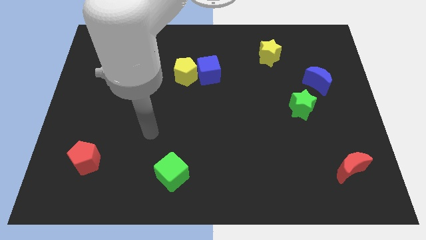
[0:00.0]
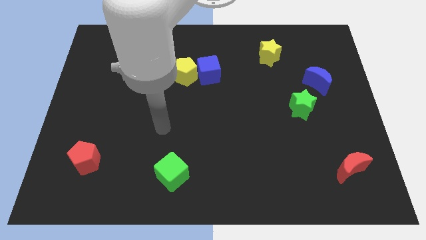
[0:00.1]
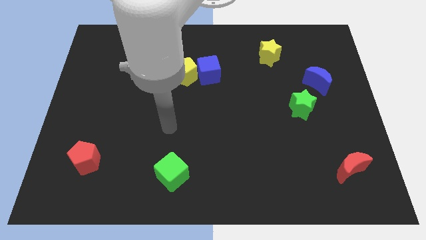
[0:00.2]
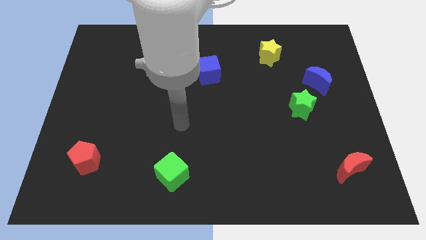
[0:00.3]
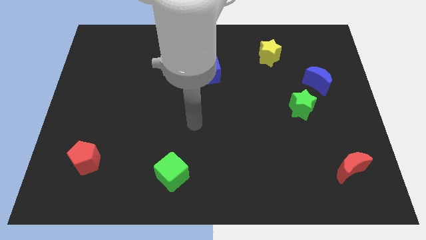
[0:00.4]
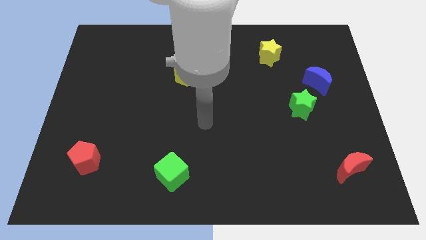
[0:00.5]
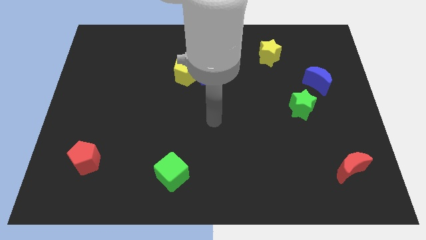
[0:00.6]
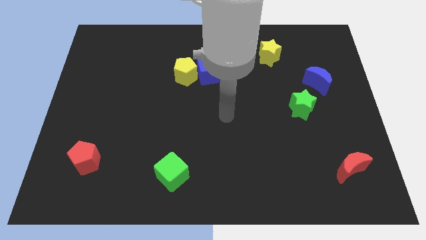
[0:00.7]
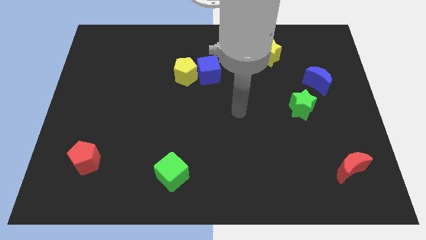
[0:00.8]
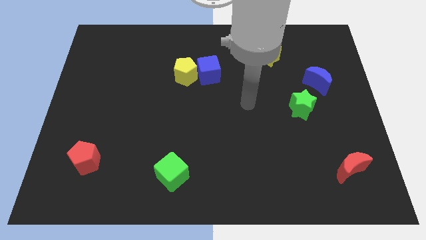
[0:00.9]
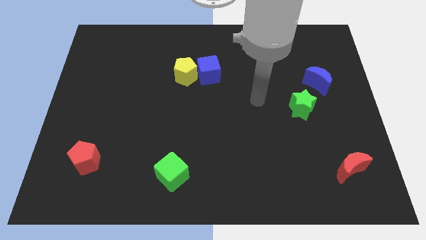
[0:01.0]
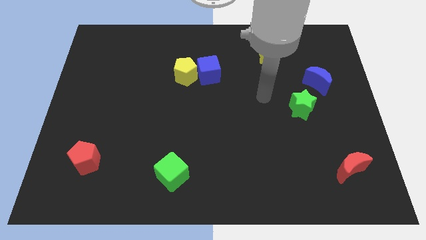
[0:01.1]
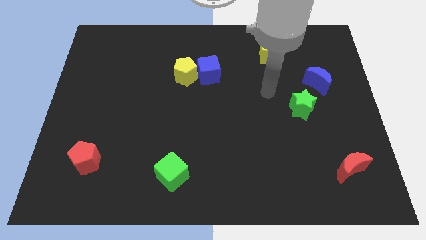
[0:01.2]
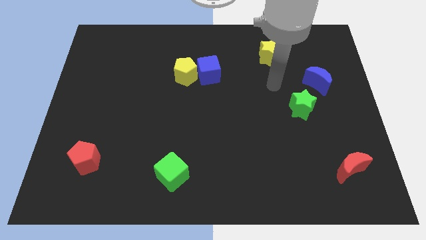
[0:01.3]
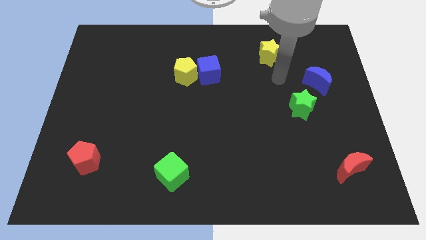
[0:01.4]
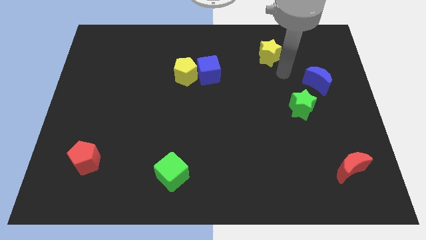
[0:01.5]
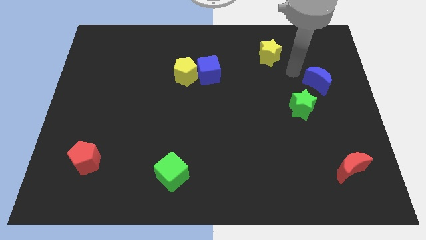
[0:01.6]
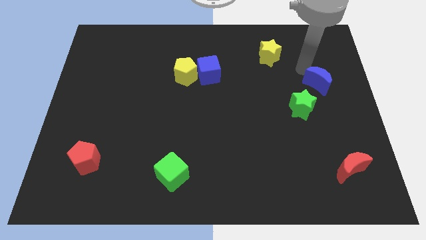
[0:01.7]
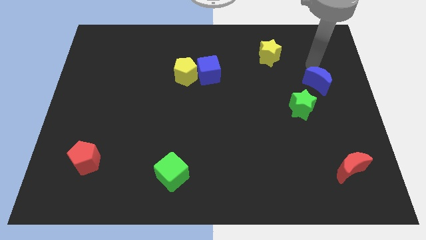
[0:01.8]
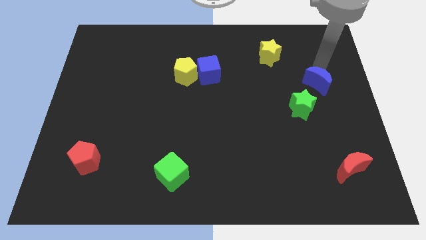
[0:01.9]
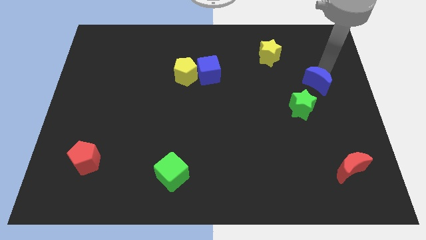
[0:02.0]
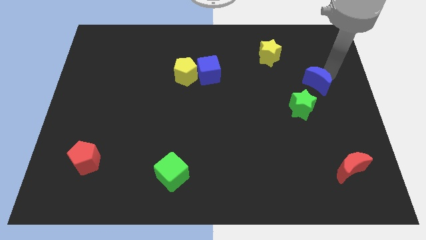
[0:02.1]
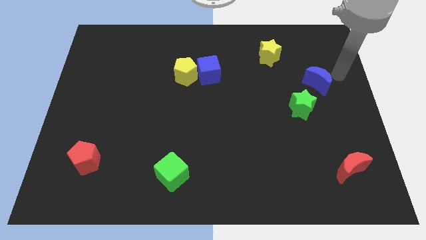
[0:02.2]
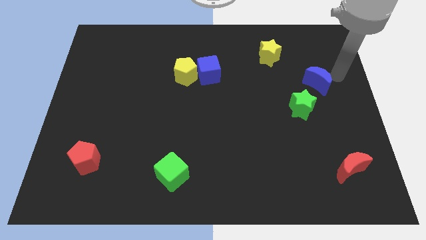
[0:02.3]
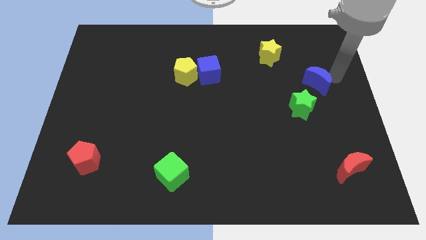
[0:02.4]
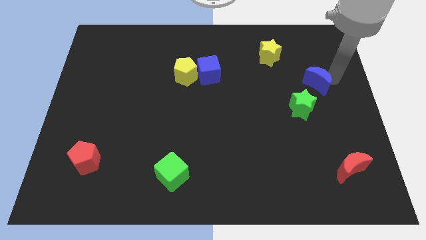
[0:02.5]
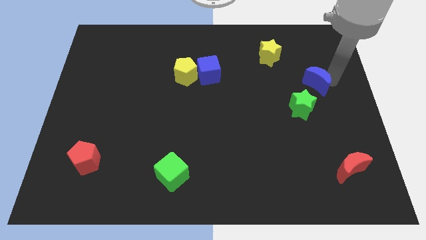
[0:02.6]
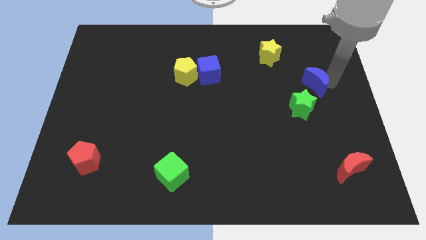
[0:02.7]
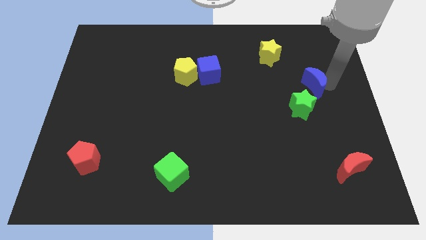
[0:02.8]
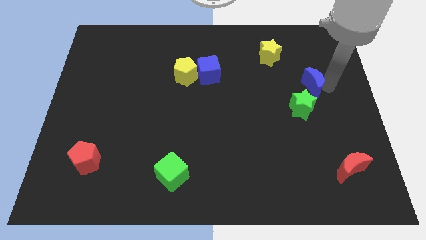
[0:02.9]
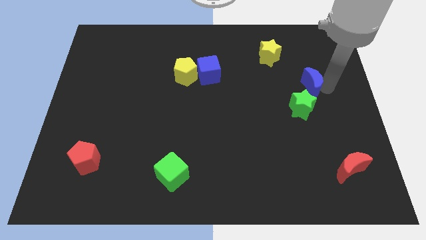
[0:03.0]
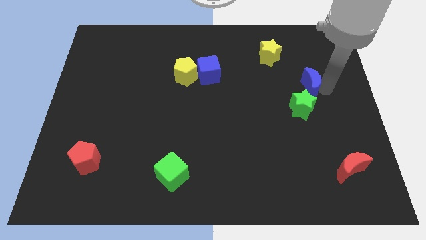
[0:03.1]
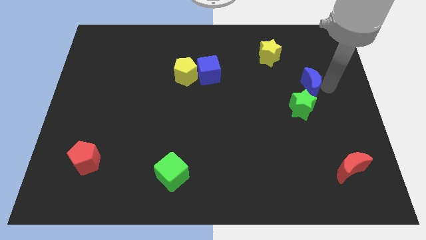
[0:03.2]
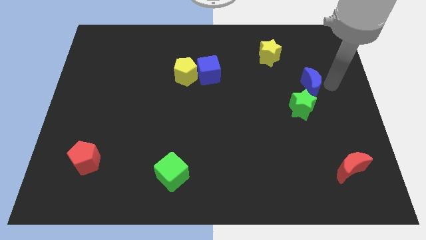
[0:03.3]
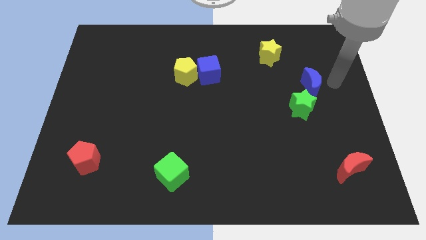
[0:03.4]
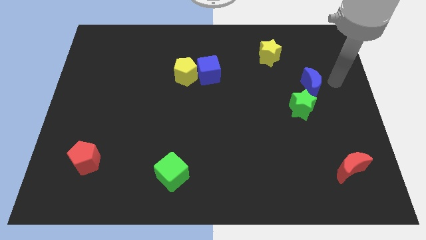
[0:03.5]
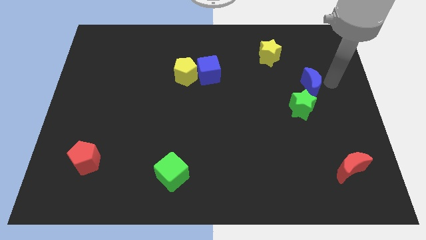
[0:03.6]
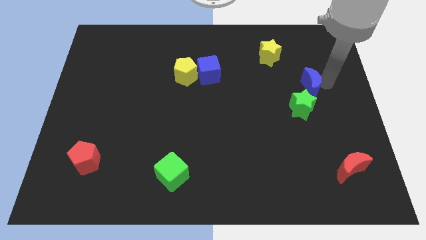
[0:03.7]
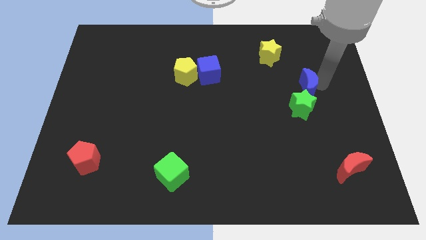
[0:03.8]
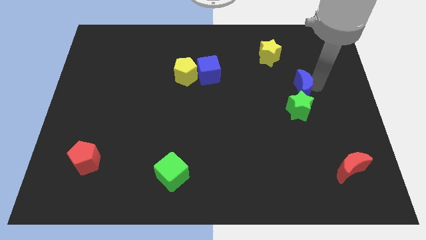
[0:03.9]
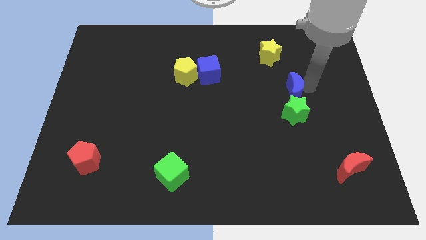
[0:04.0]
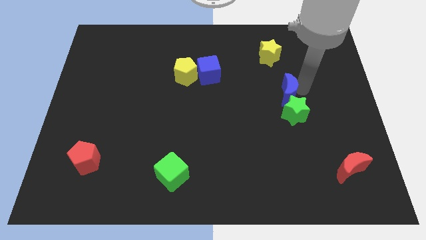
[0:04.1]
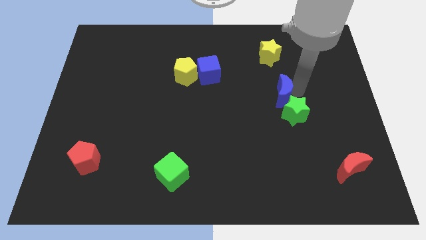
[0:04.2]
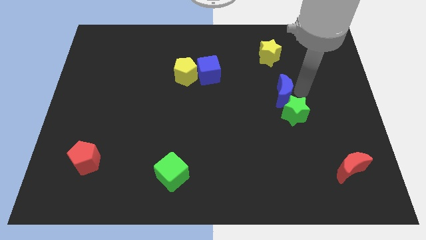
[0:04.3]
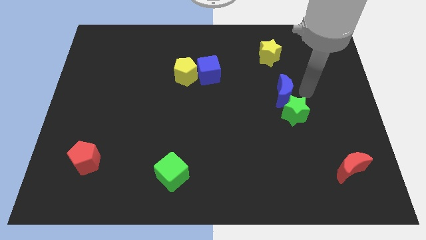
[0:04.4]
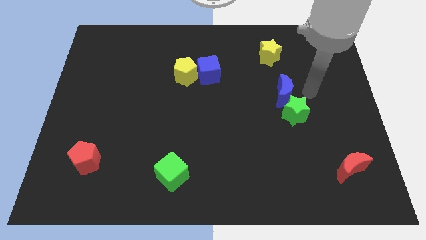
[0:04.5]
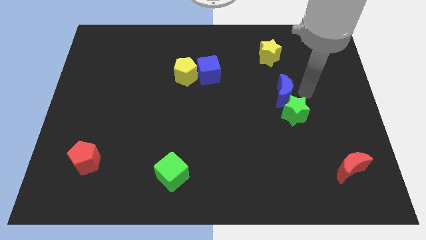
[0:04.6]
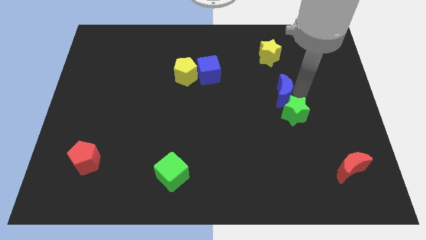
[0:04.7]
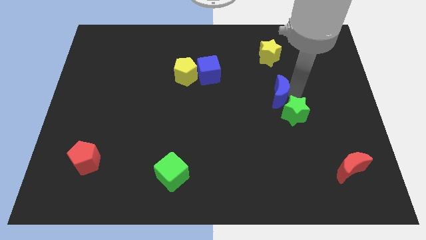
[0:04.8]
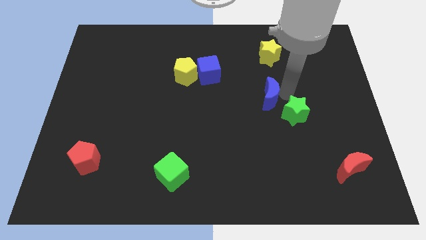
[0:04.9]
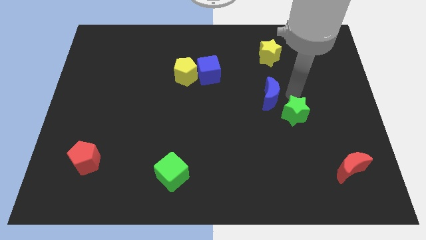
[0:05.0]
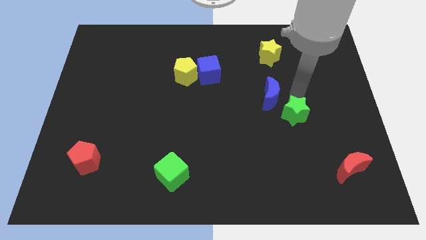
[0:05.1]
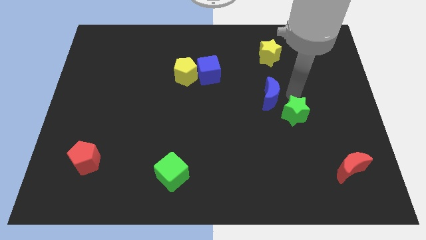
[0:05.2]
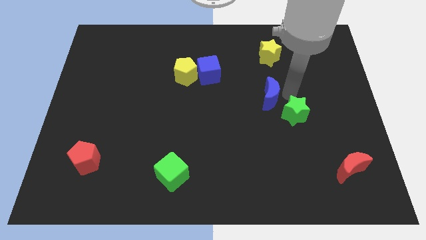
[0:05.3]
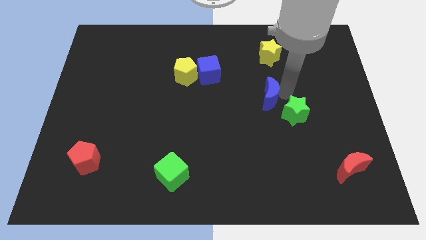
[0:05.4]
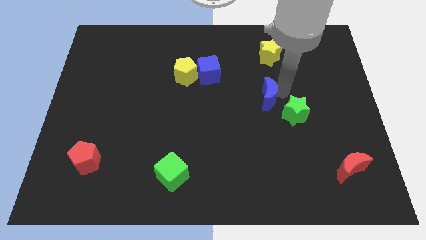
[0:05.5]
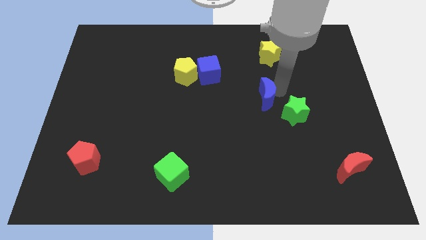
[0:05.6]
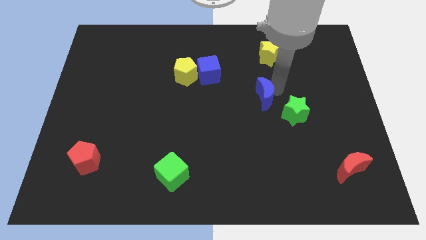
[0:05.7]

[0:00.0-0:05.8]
move the blue moon to the middle
